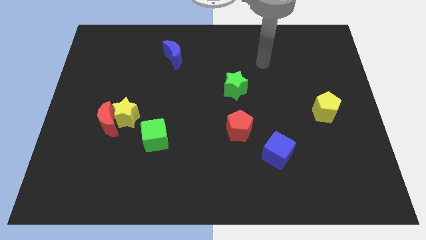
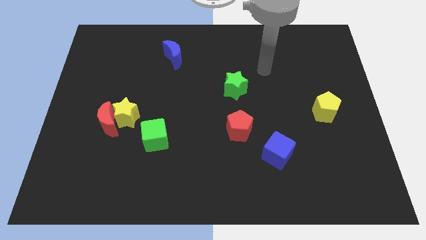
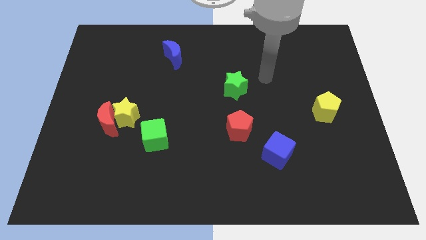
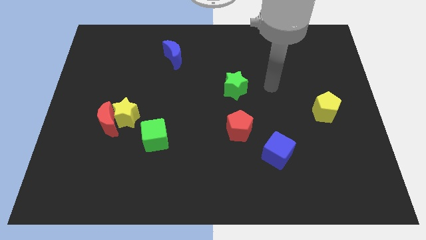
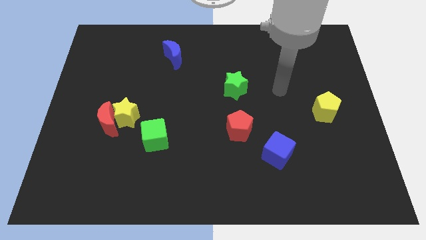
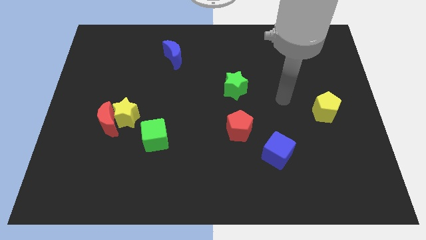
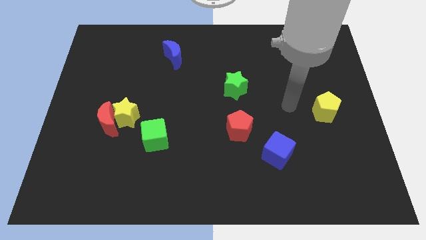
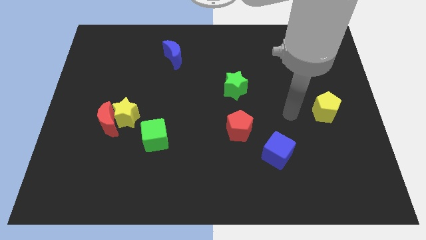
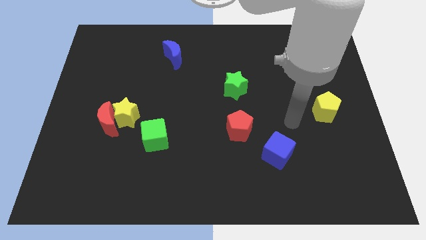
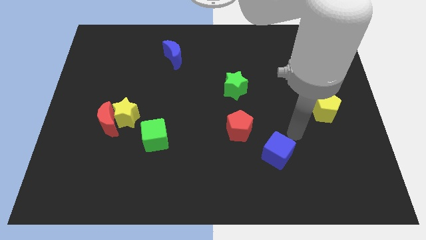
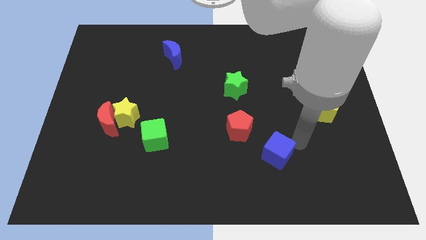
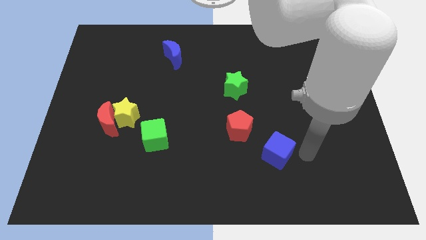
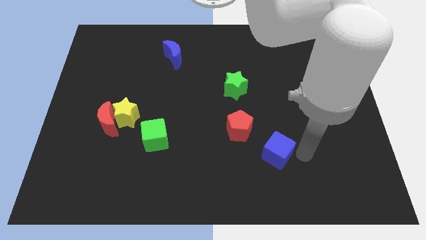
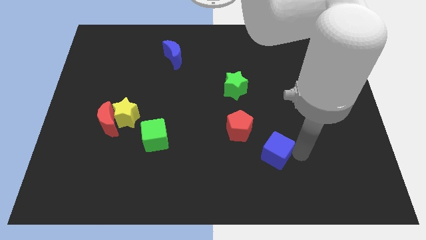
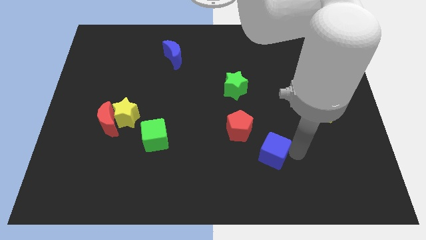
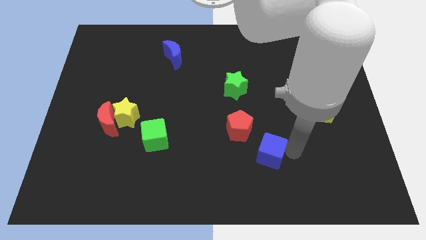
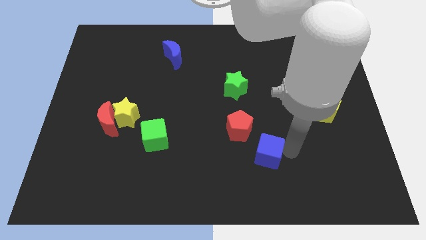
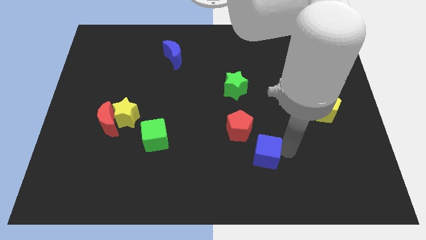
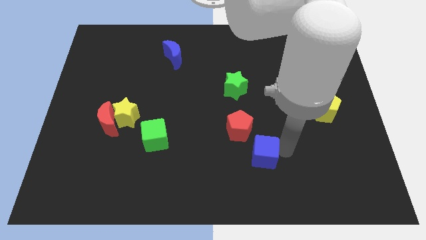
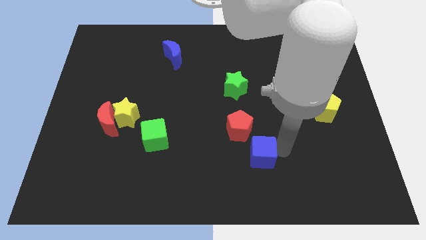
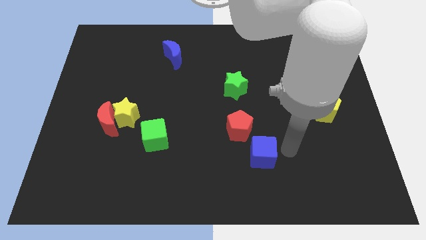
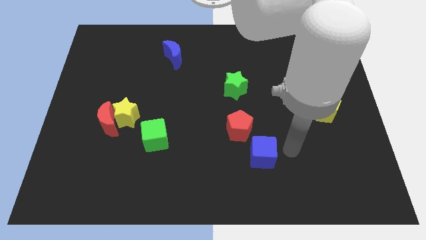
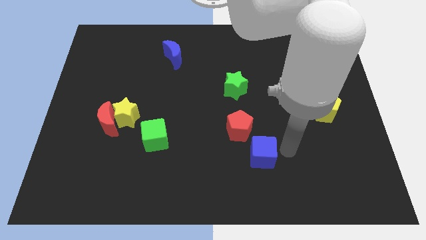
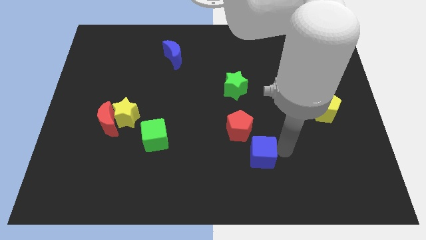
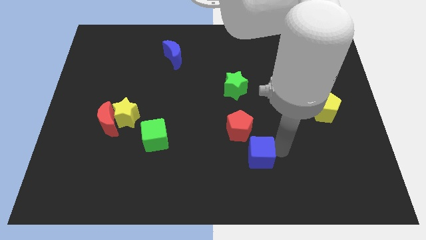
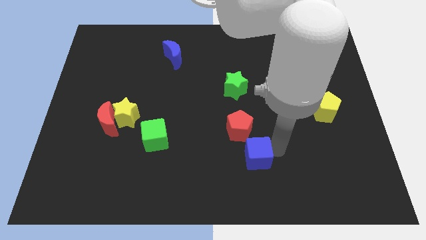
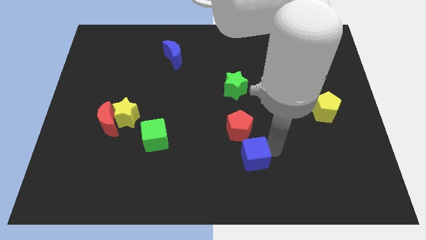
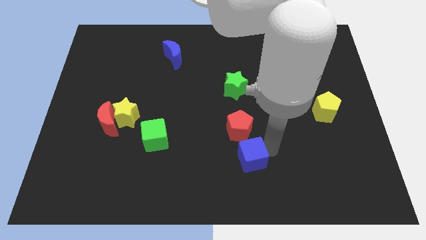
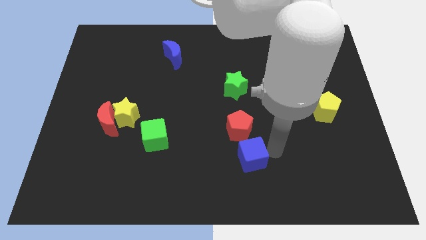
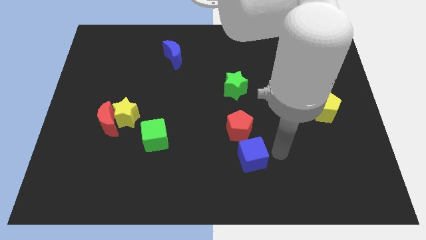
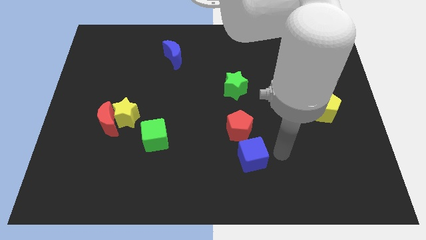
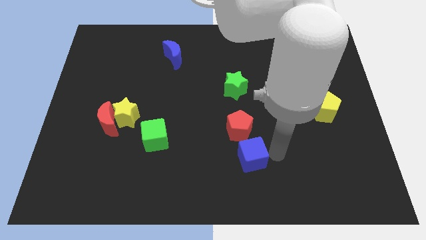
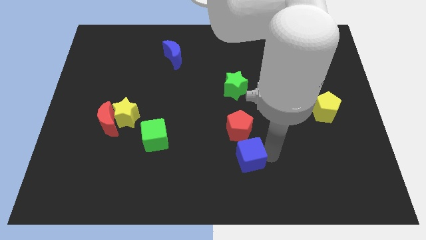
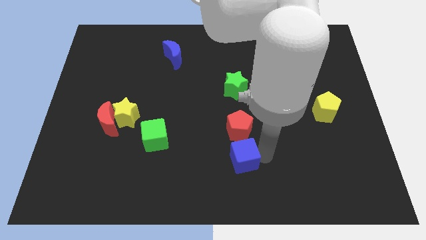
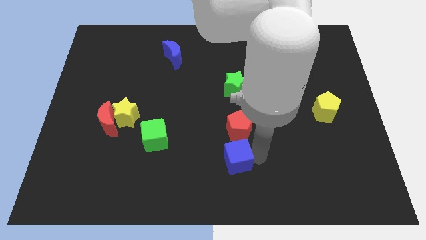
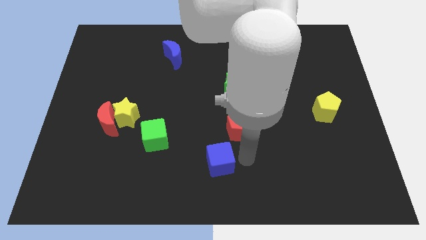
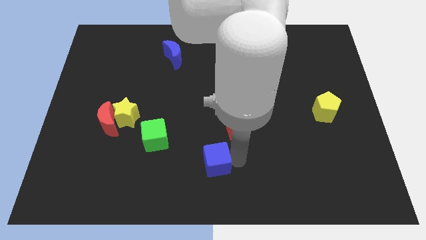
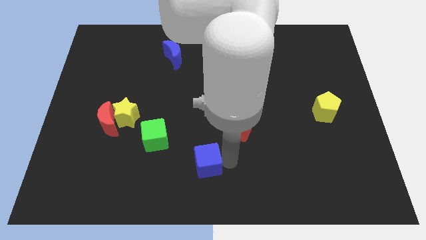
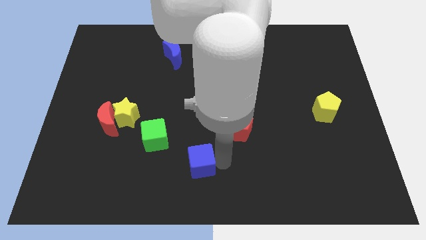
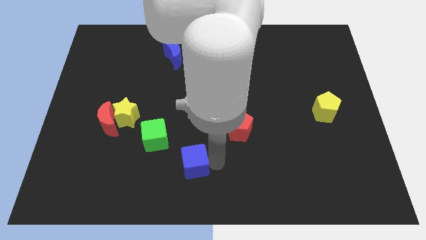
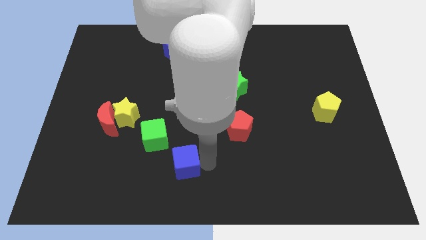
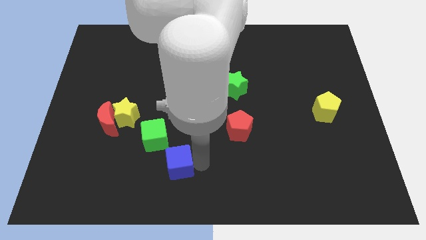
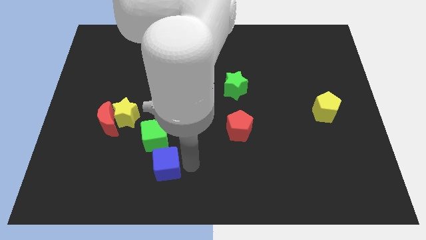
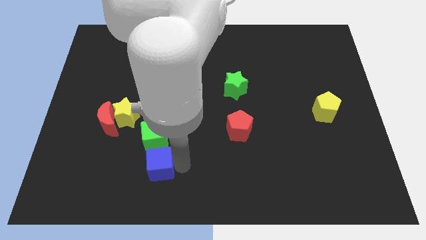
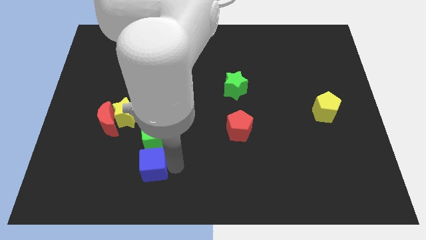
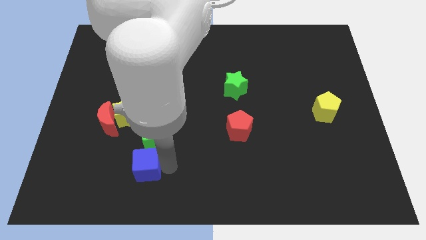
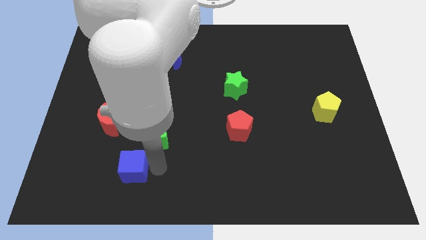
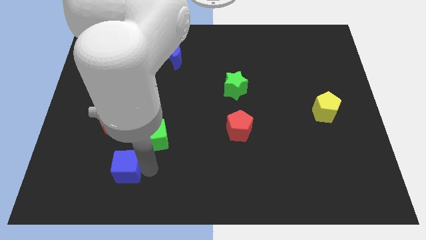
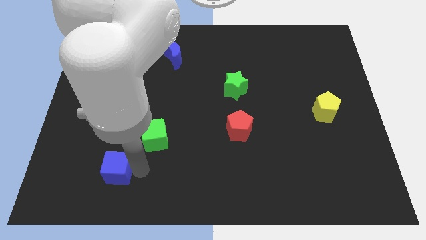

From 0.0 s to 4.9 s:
push the blue cube to the bottom of the red moon

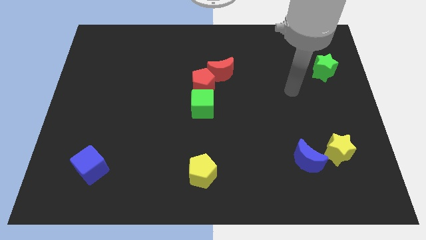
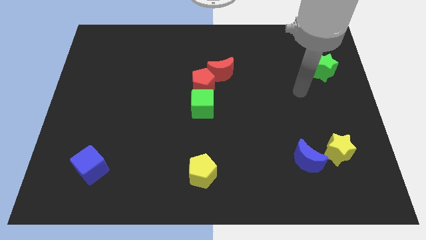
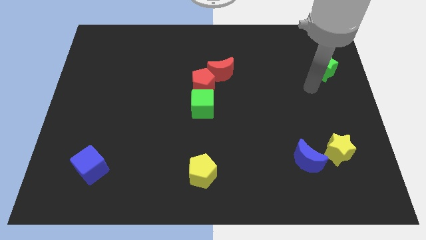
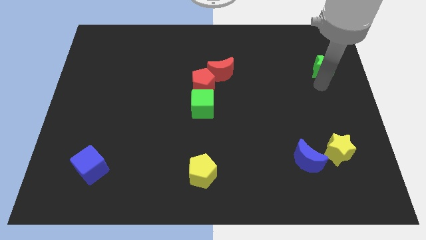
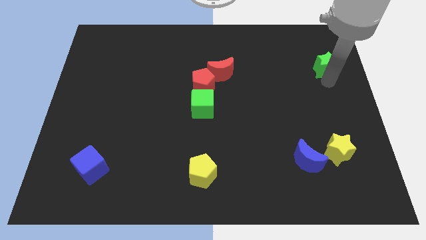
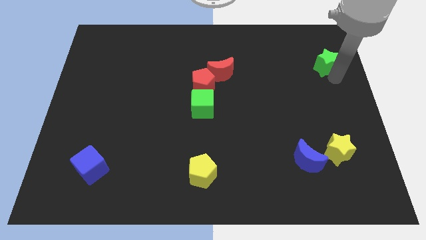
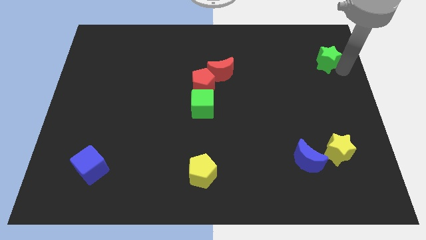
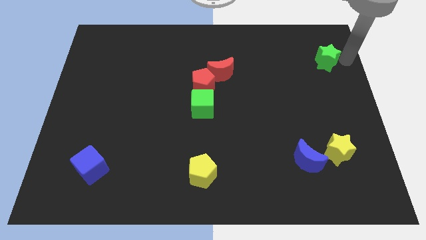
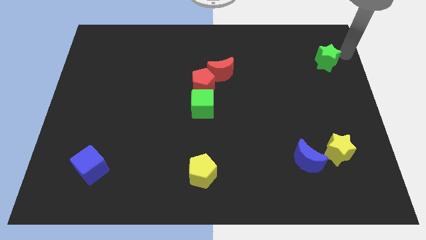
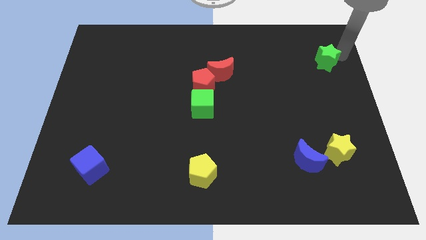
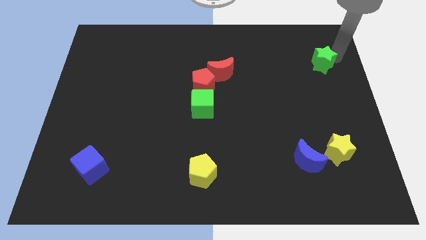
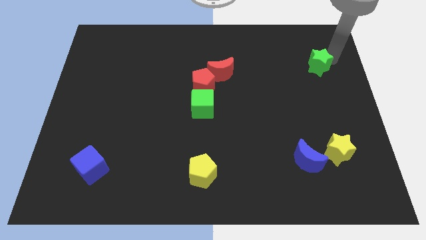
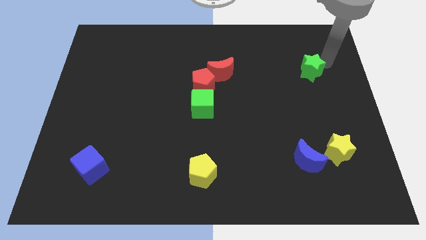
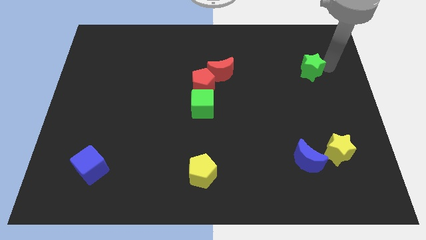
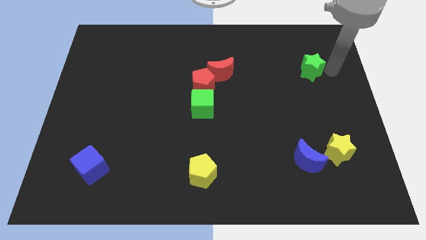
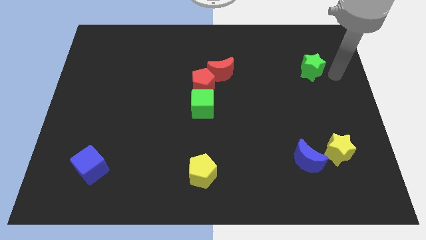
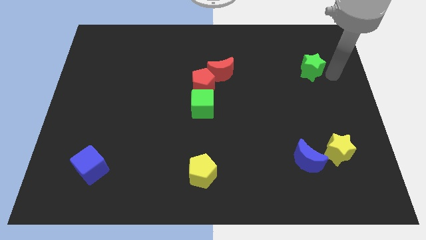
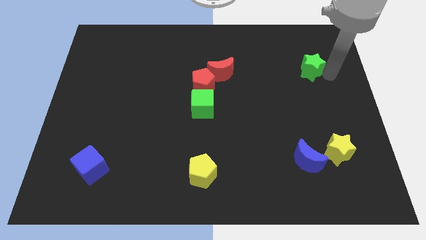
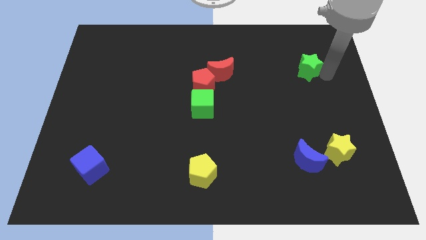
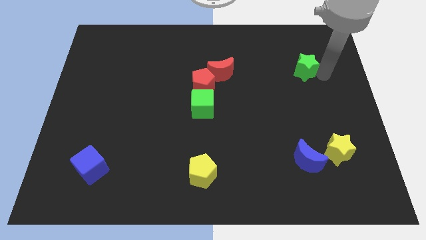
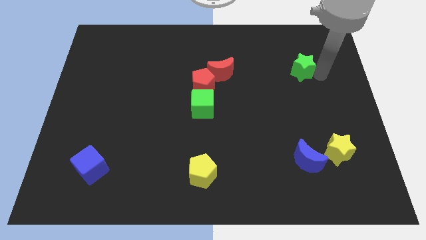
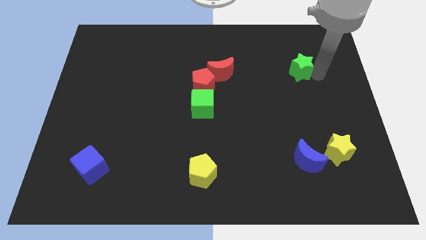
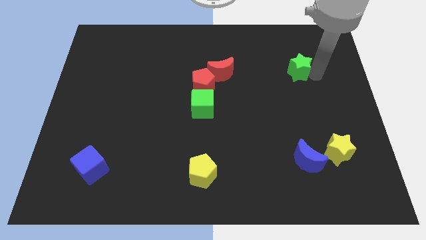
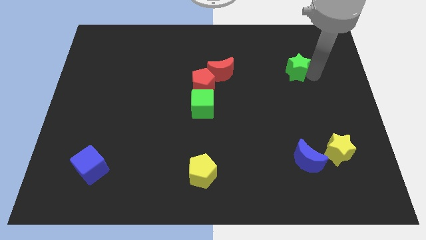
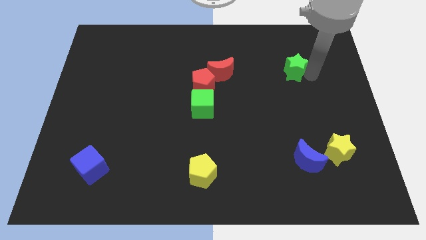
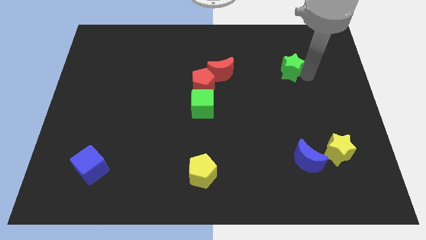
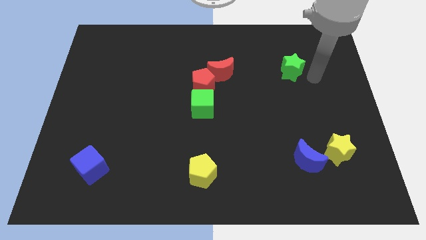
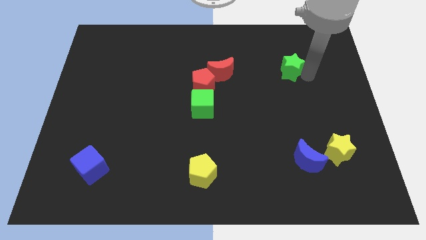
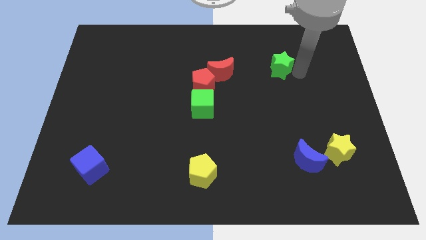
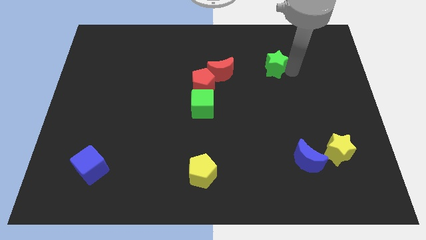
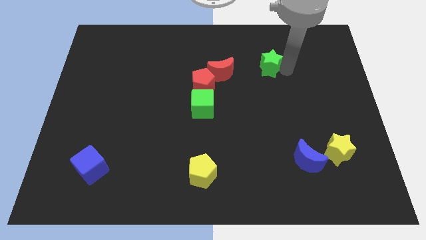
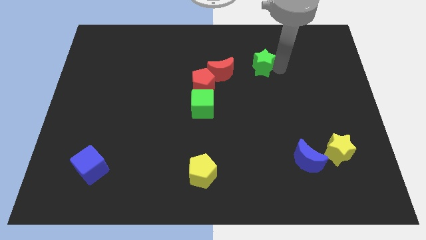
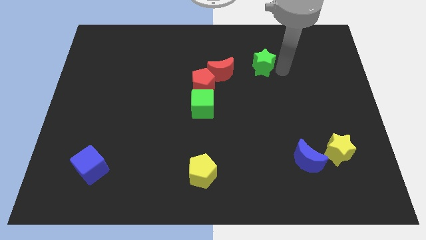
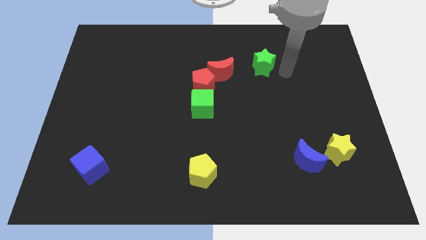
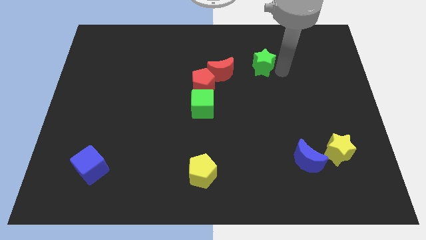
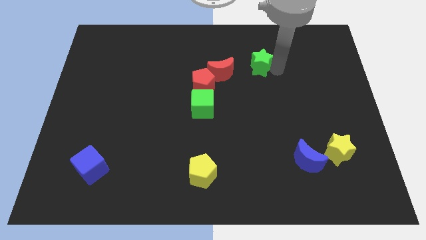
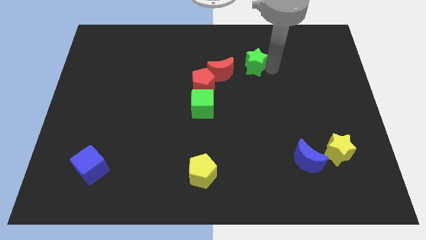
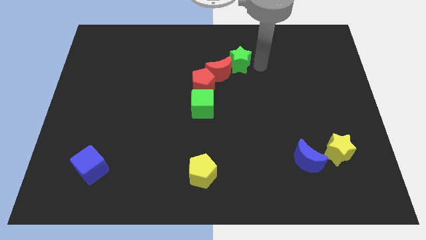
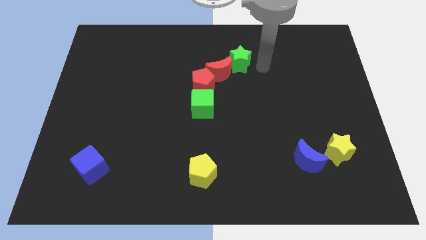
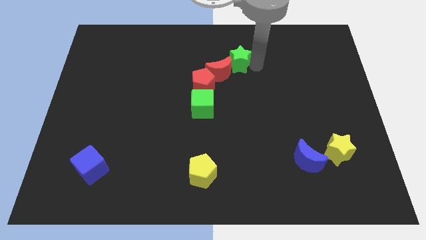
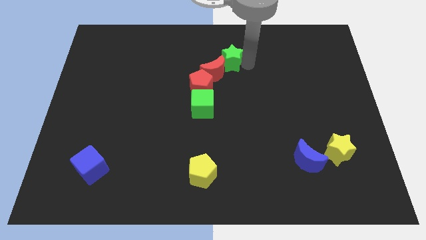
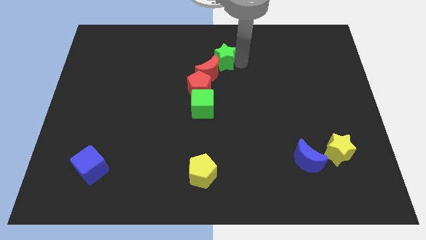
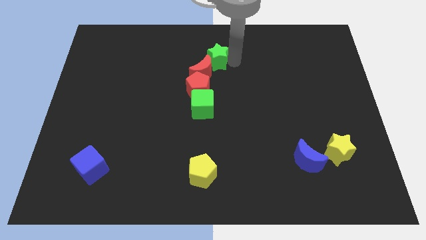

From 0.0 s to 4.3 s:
put the green star to the top side of the red pentagon
